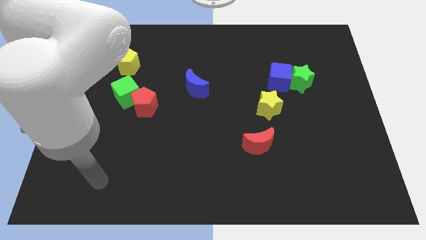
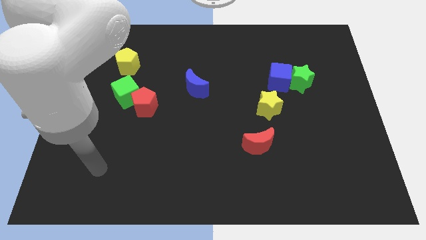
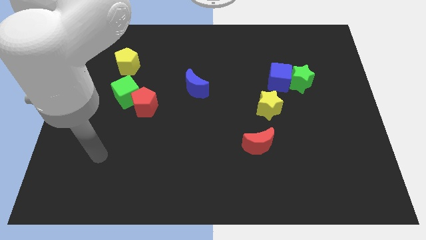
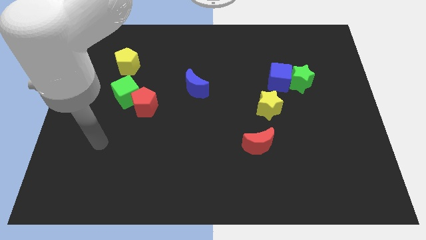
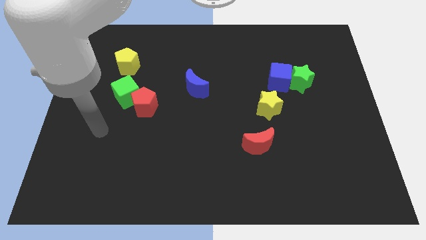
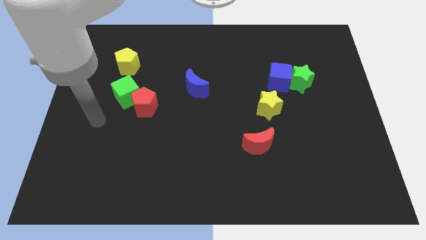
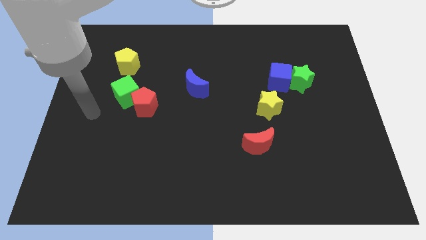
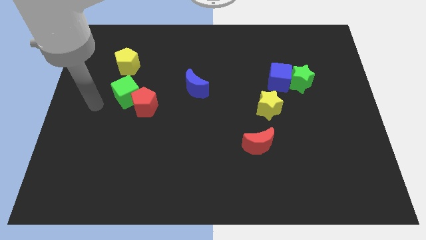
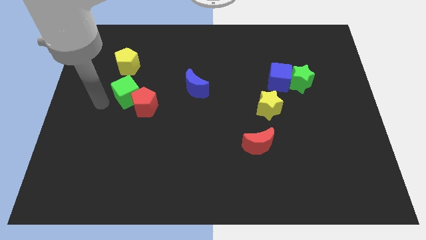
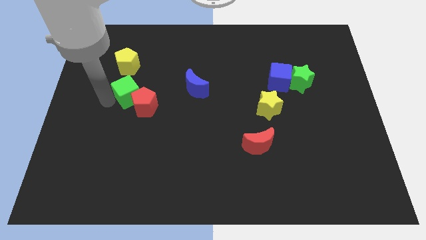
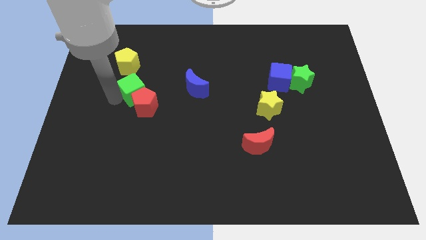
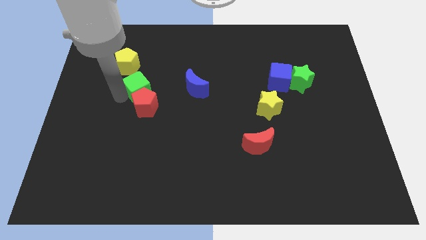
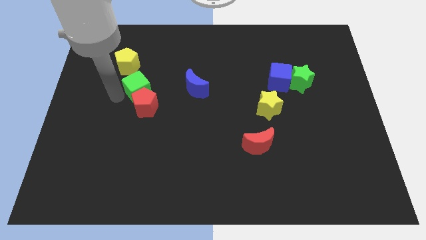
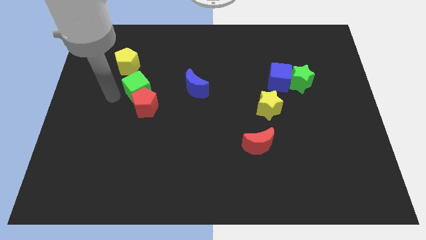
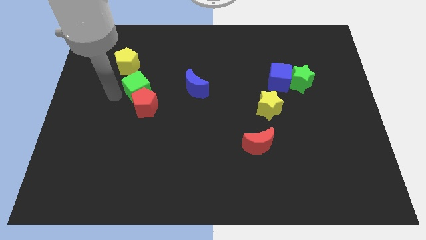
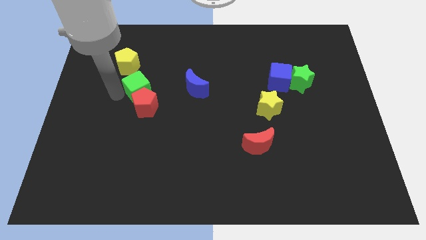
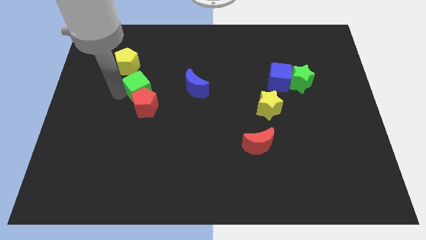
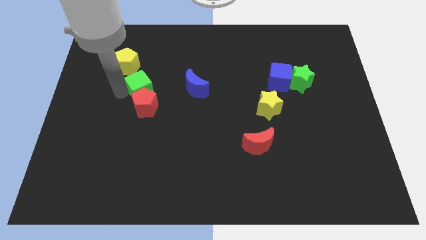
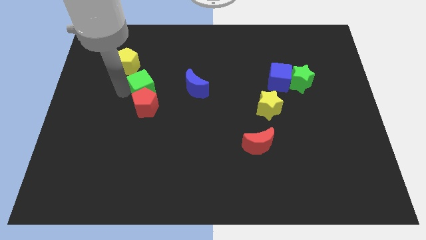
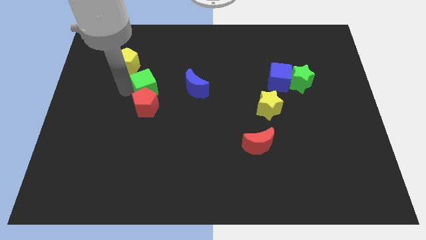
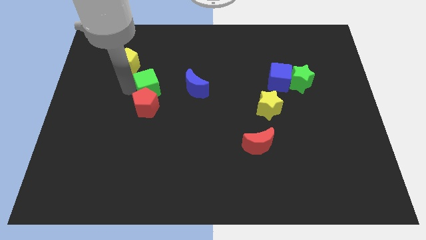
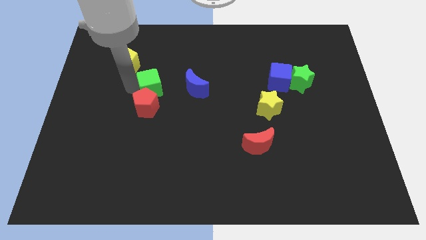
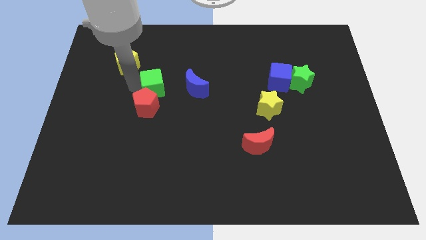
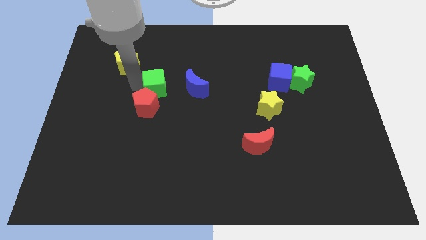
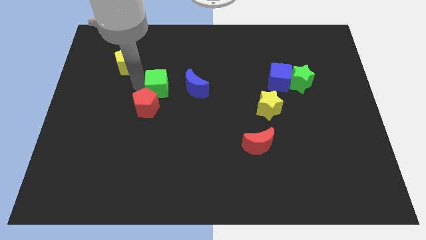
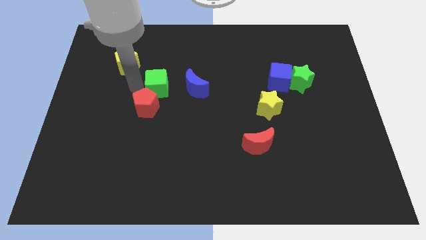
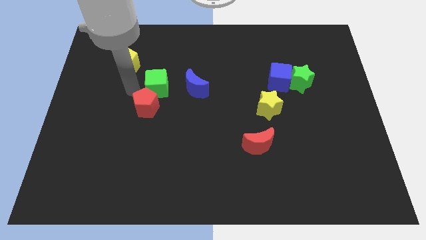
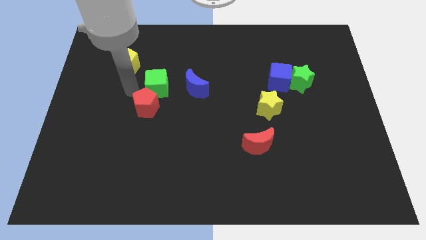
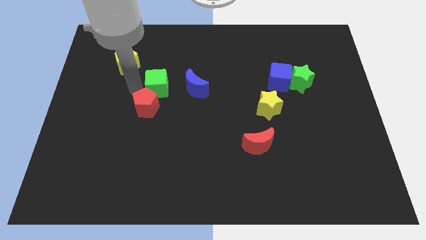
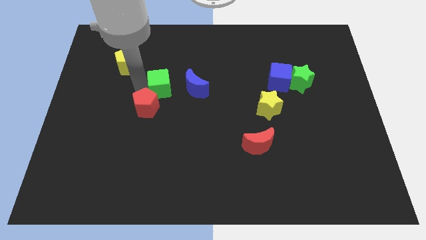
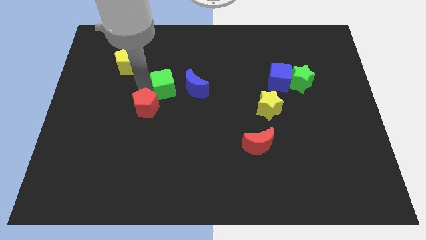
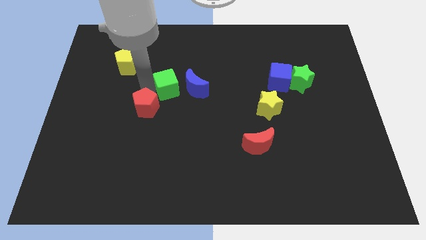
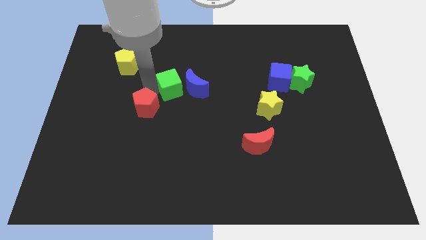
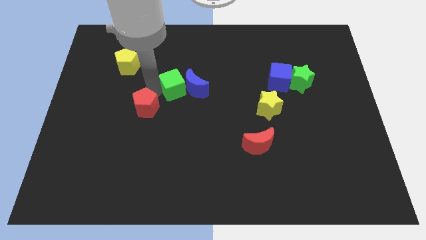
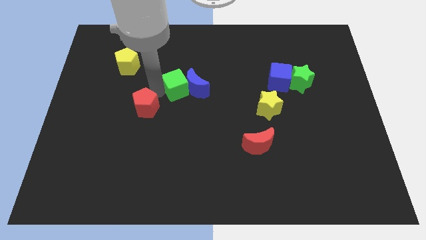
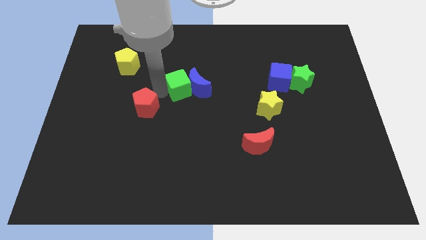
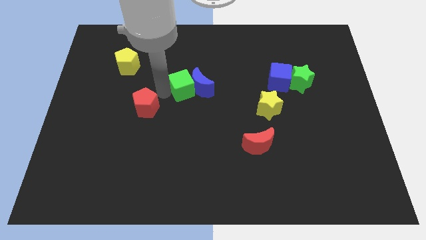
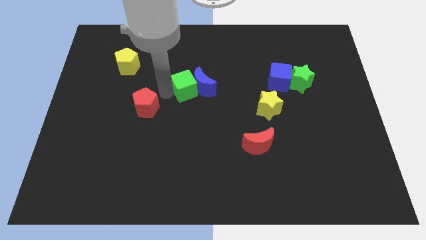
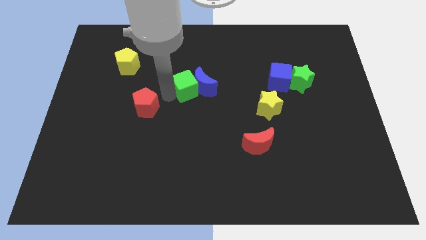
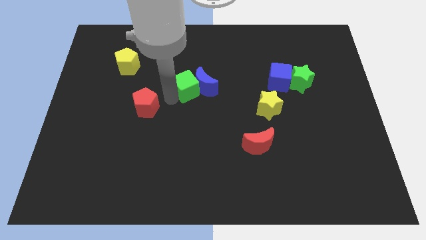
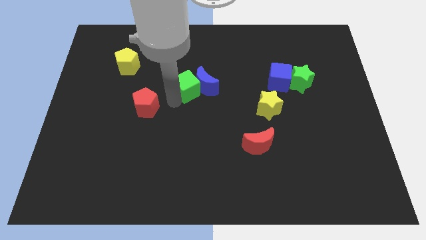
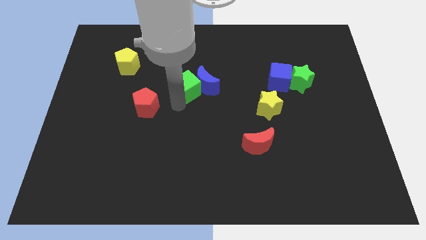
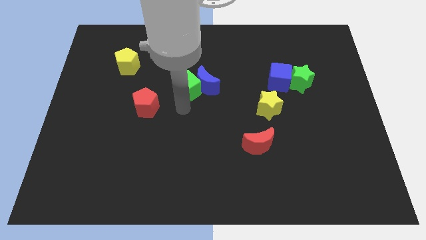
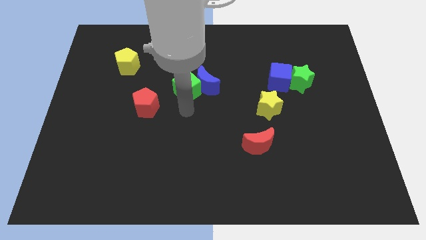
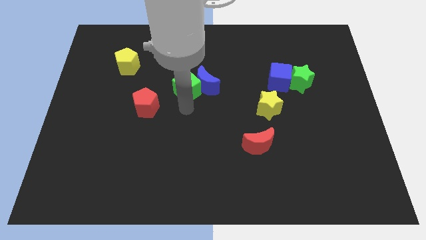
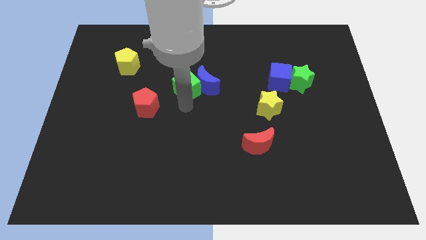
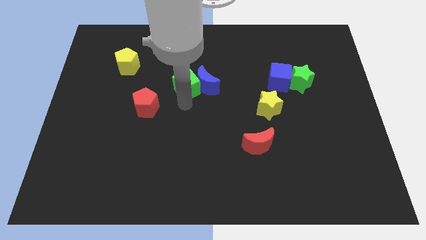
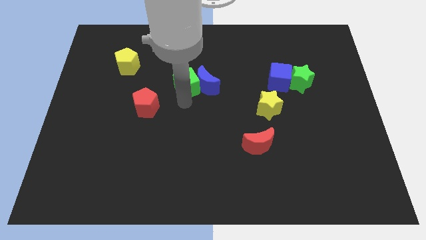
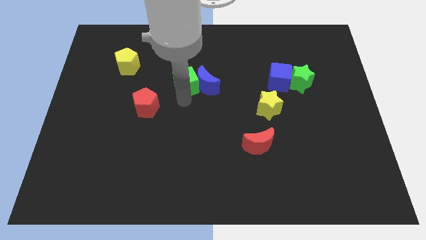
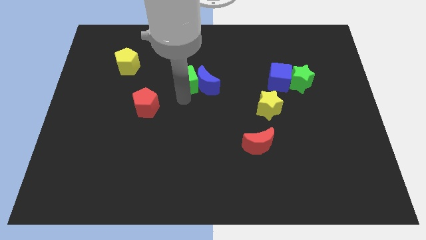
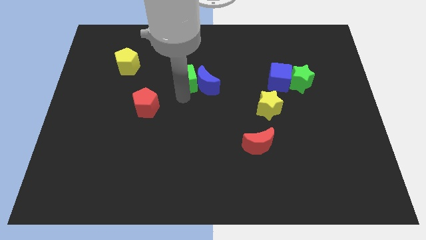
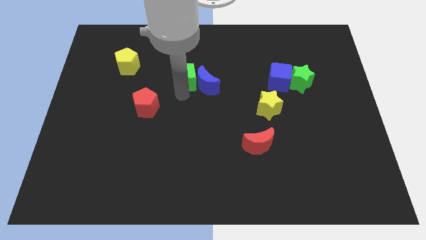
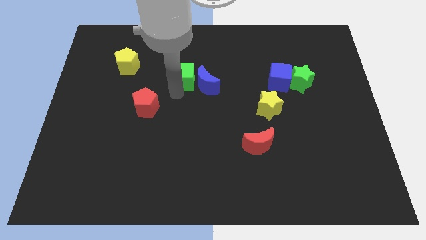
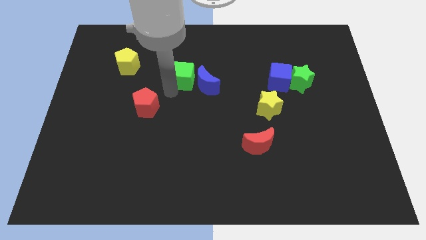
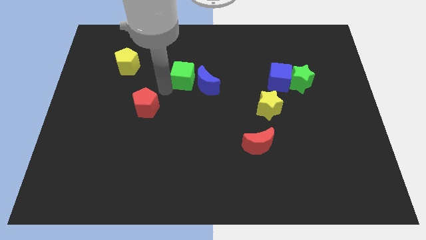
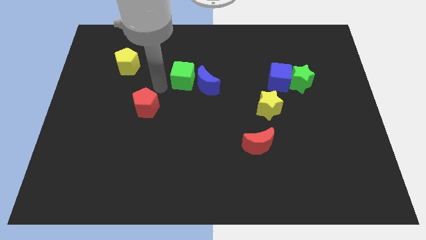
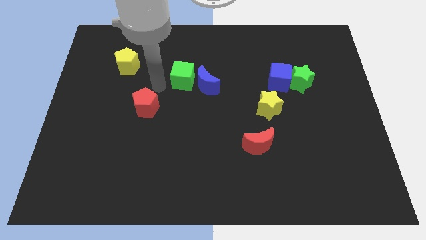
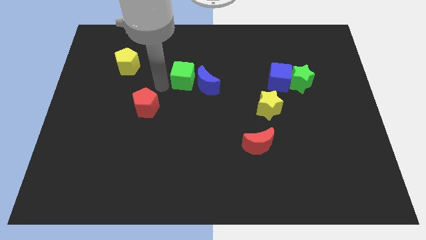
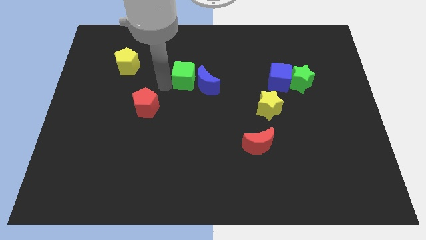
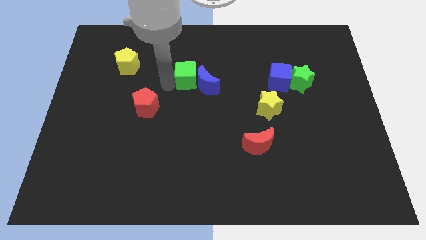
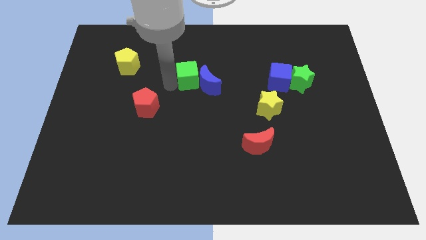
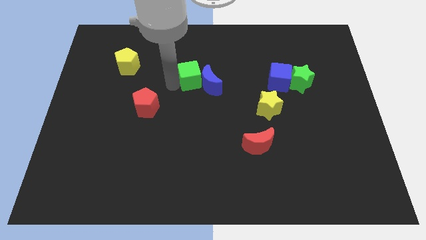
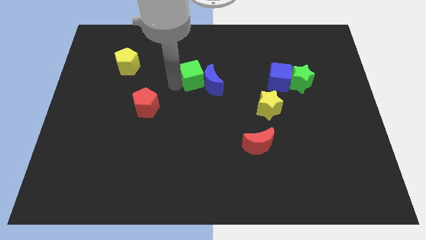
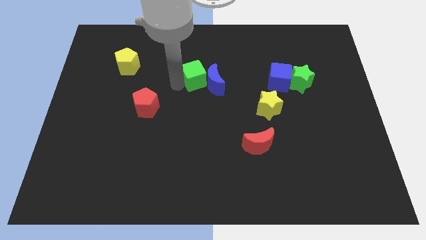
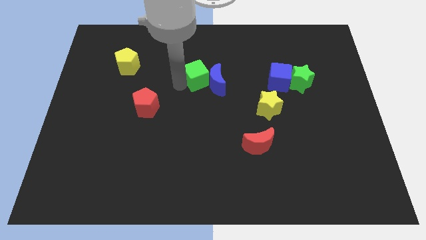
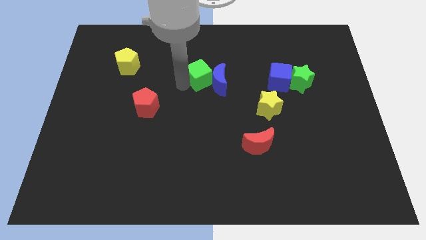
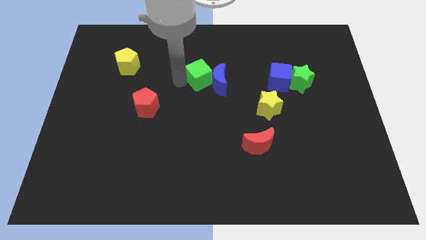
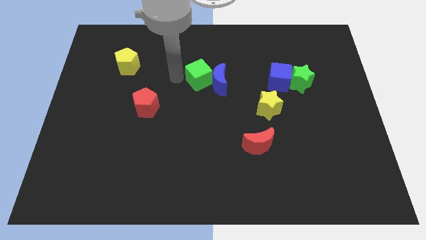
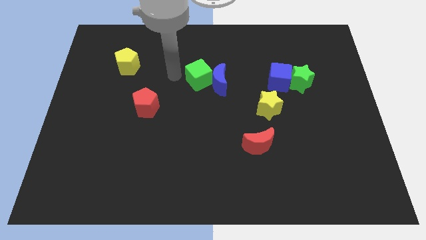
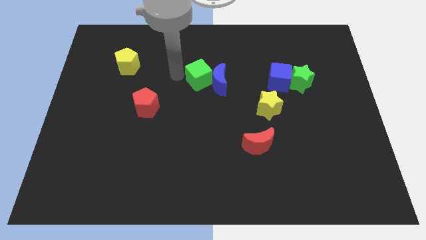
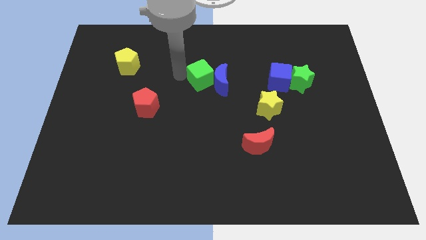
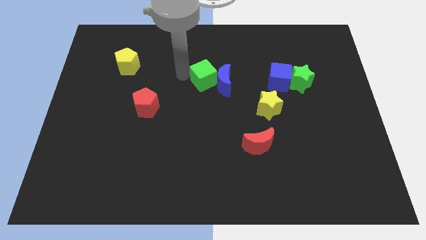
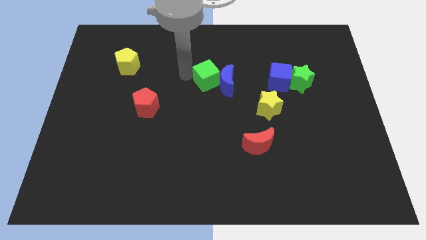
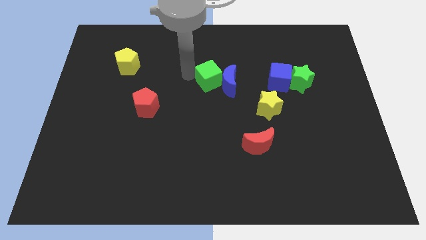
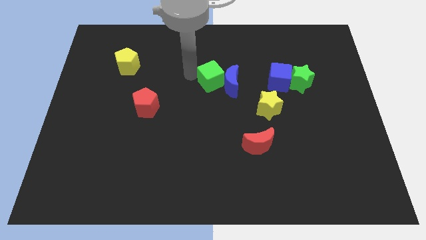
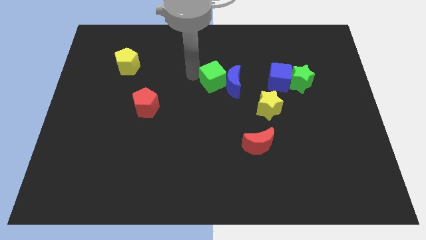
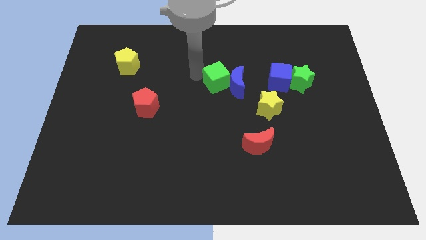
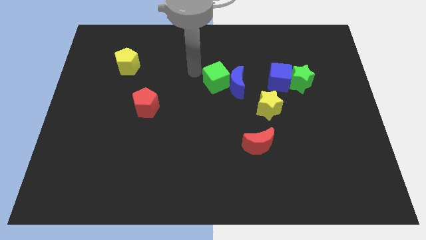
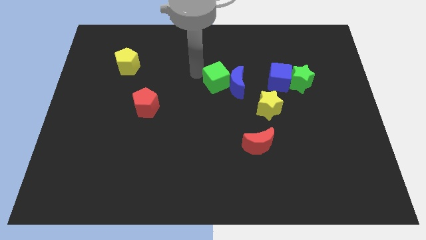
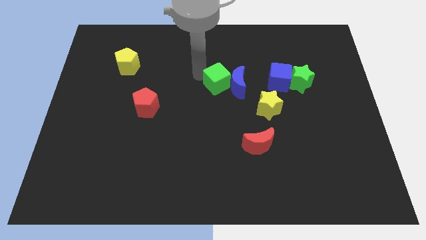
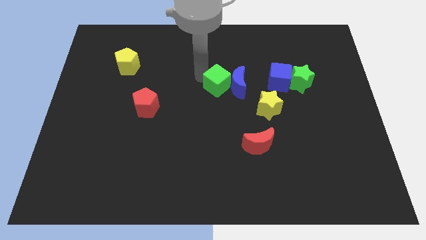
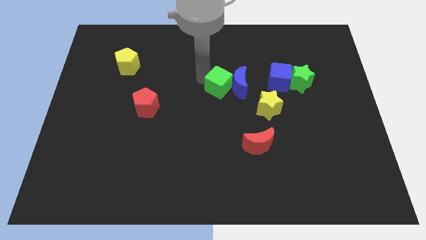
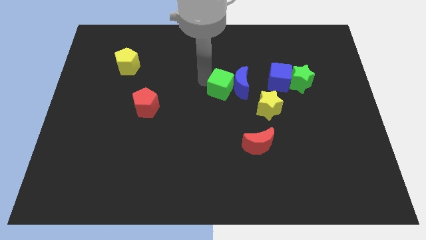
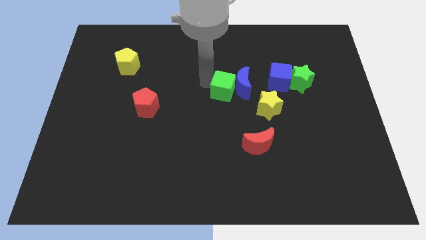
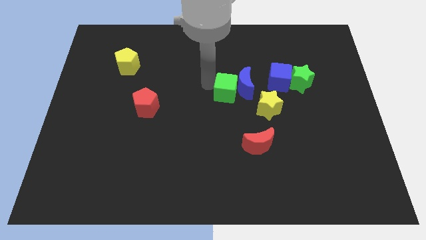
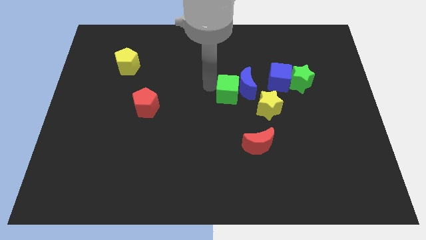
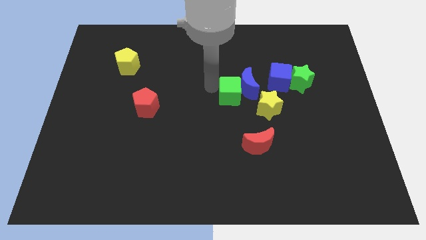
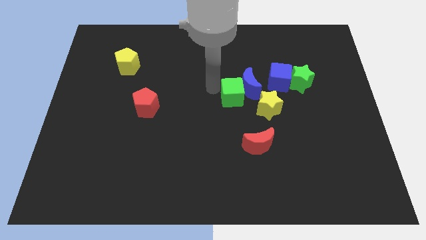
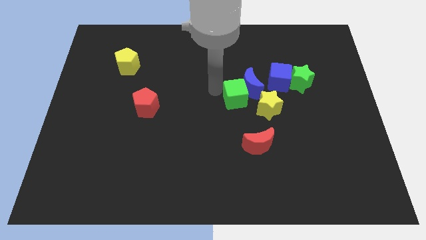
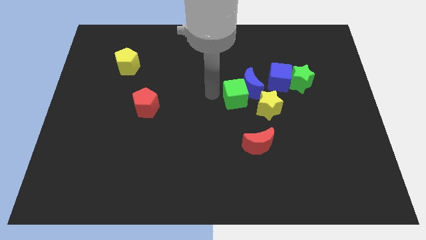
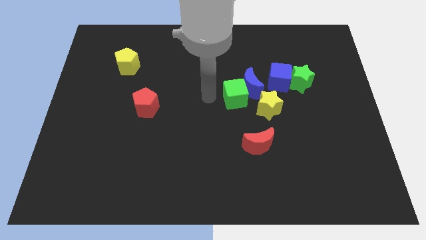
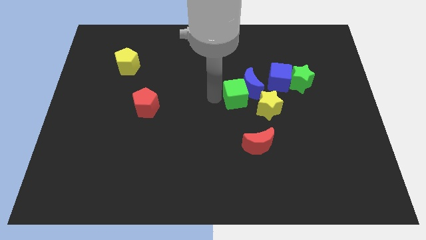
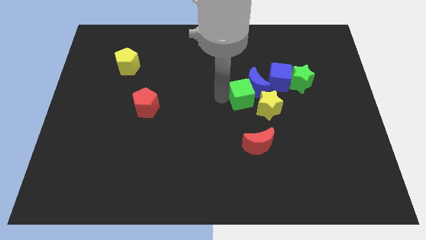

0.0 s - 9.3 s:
slide the green cube to the bottom left side of the blue cube
